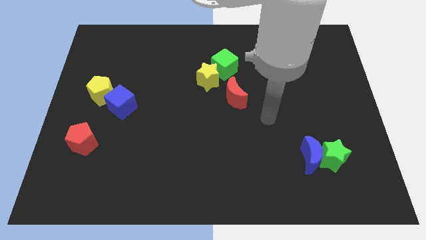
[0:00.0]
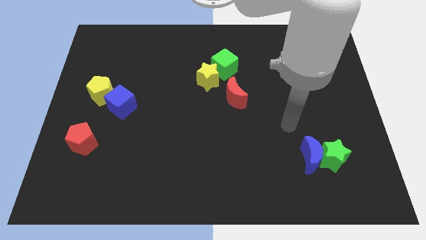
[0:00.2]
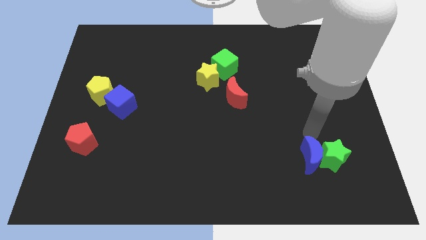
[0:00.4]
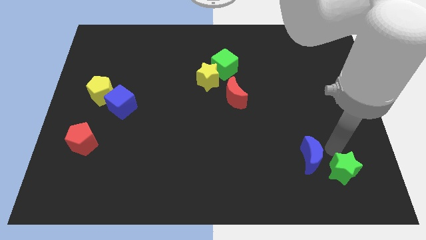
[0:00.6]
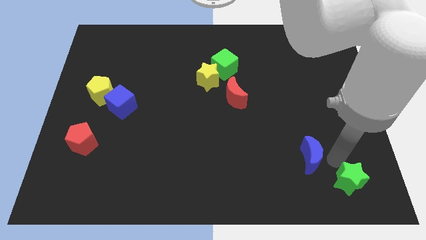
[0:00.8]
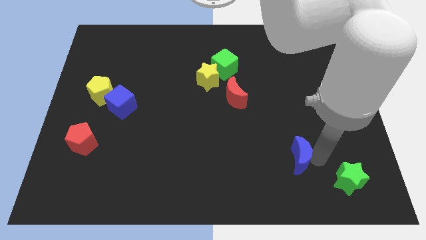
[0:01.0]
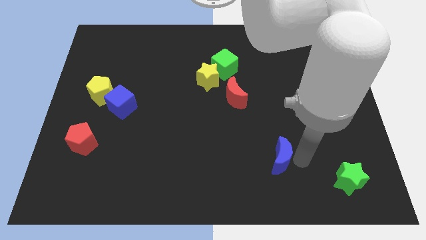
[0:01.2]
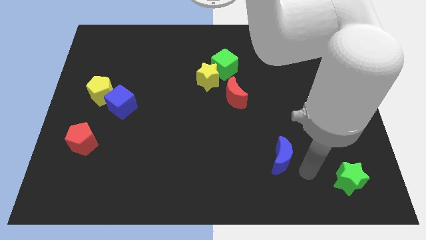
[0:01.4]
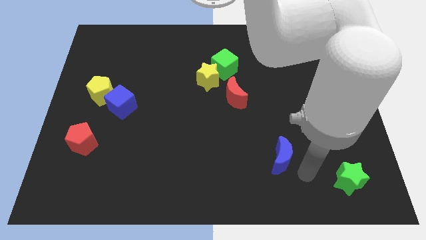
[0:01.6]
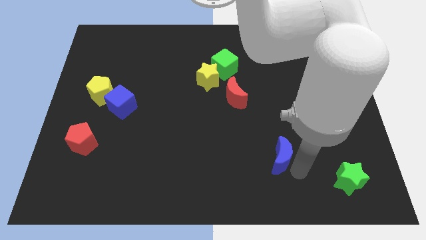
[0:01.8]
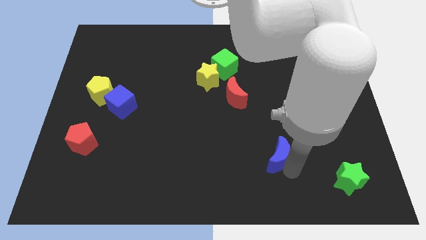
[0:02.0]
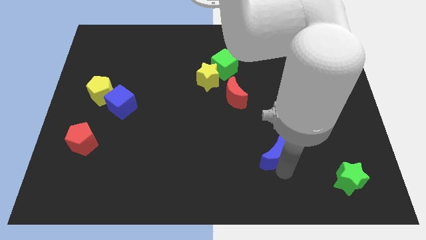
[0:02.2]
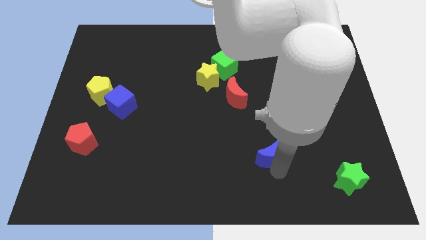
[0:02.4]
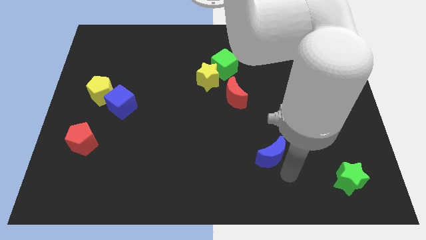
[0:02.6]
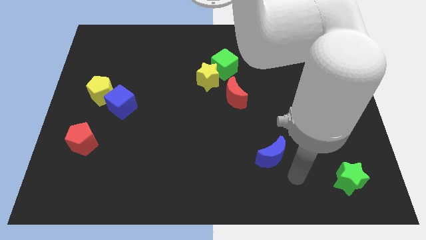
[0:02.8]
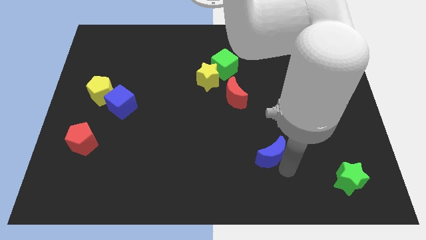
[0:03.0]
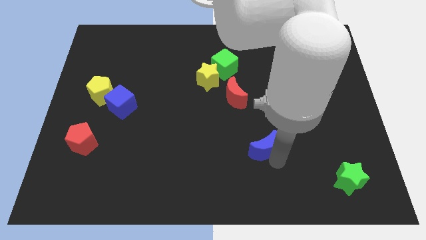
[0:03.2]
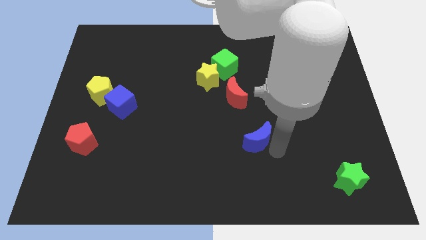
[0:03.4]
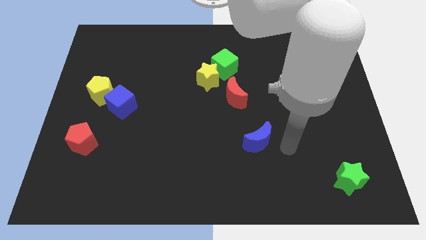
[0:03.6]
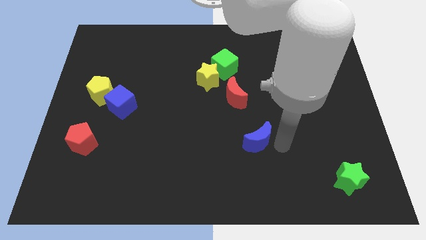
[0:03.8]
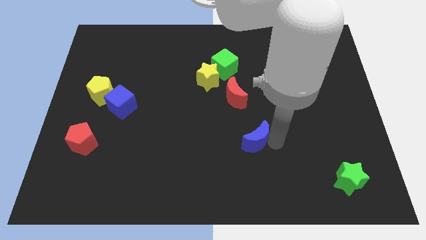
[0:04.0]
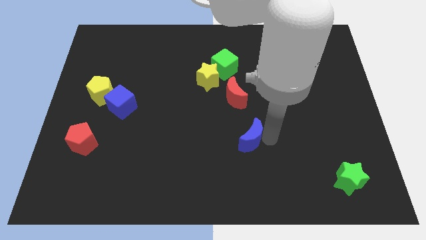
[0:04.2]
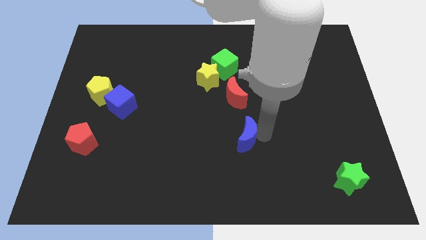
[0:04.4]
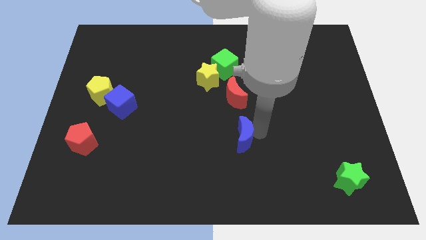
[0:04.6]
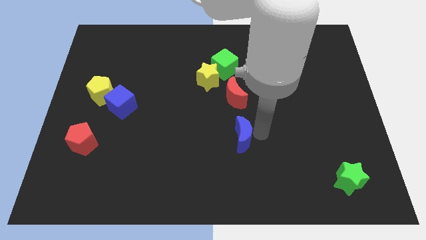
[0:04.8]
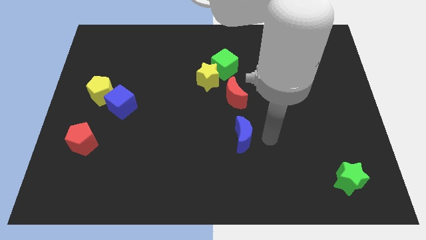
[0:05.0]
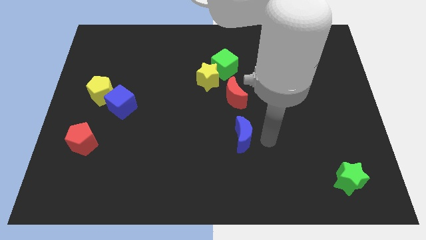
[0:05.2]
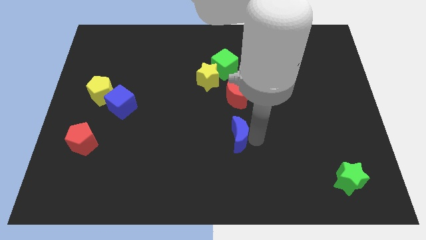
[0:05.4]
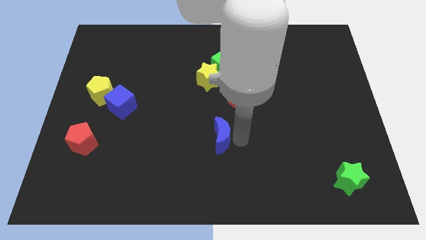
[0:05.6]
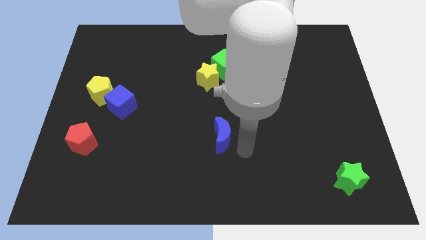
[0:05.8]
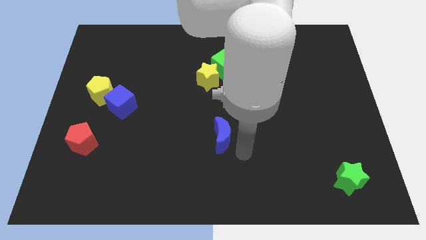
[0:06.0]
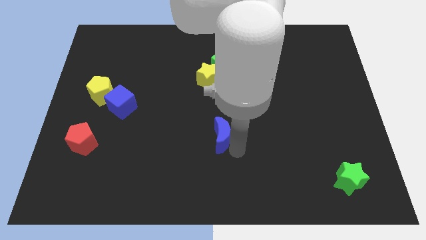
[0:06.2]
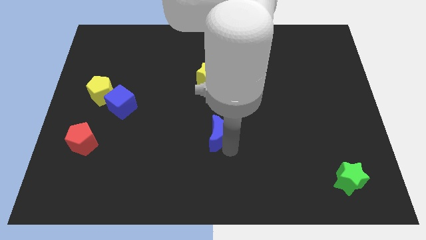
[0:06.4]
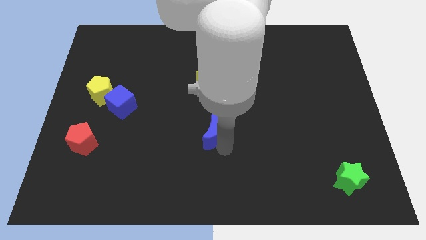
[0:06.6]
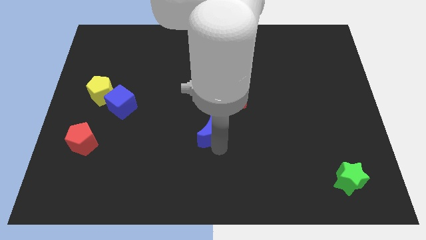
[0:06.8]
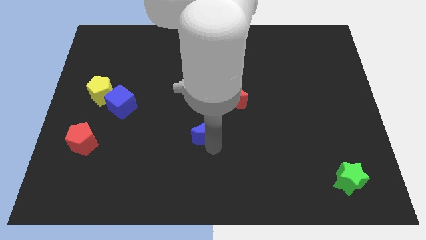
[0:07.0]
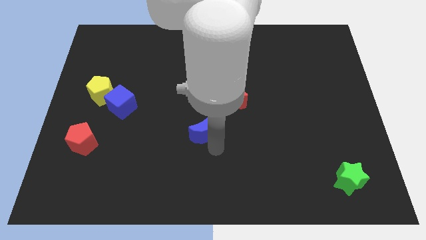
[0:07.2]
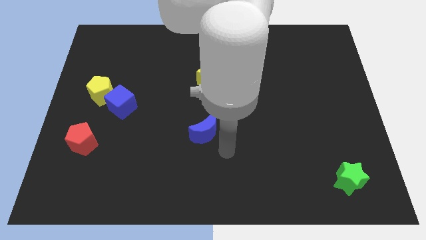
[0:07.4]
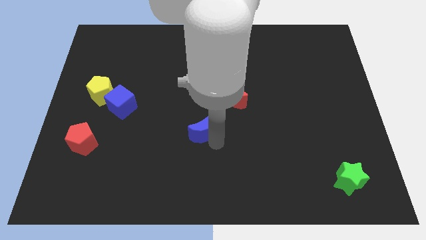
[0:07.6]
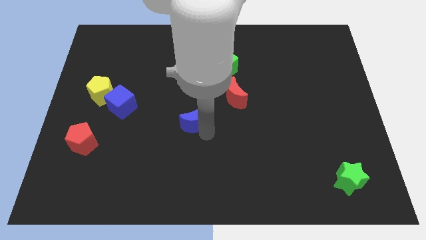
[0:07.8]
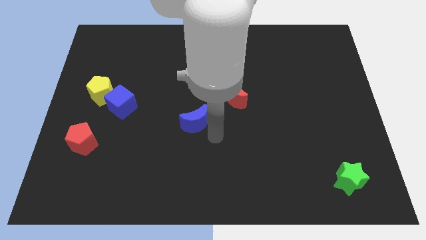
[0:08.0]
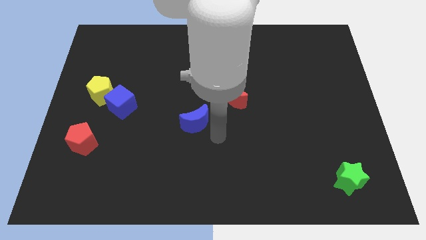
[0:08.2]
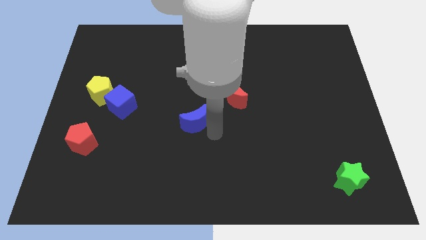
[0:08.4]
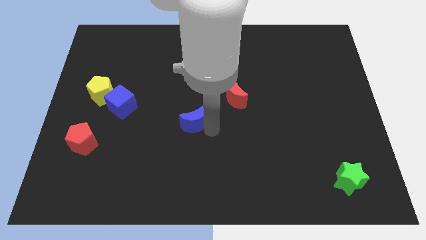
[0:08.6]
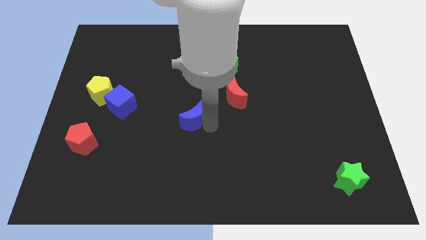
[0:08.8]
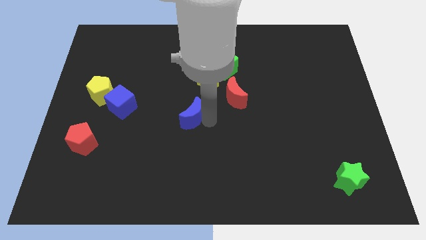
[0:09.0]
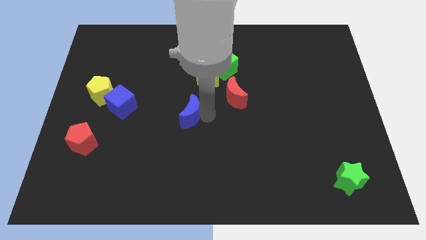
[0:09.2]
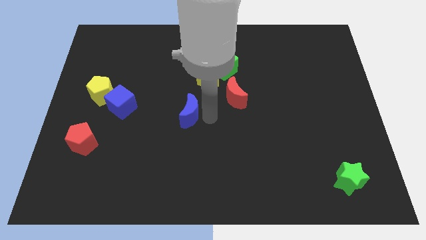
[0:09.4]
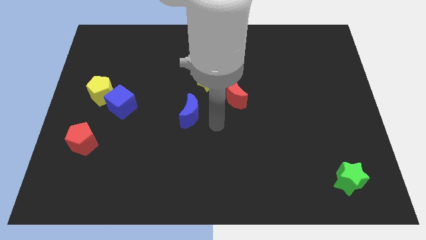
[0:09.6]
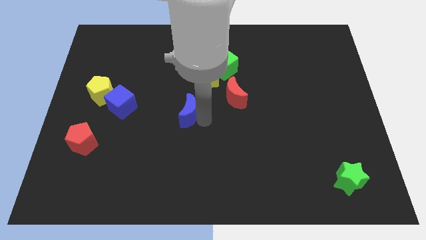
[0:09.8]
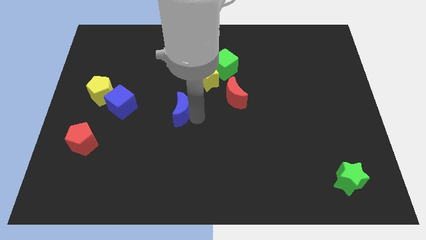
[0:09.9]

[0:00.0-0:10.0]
push the blue moon right of the blue cube

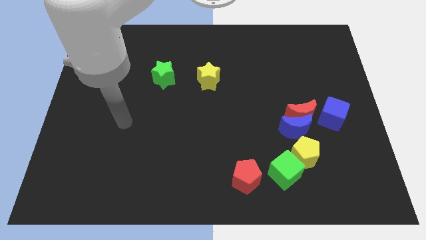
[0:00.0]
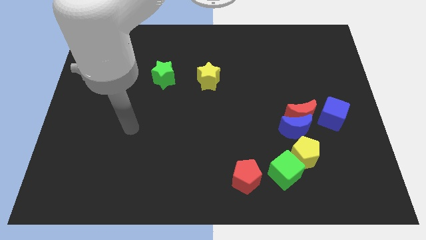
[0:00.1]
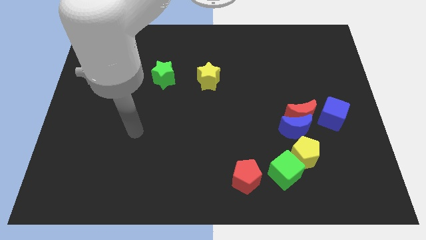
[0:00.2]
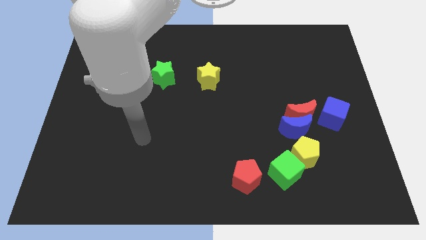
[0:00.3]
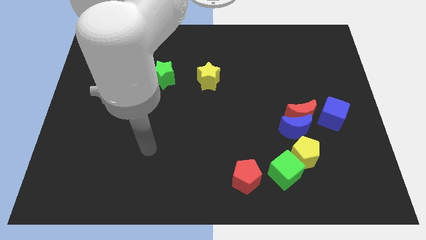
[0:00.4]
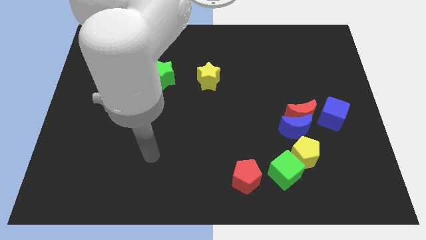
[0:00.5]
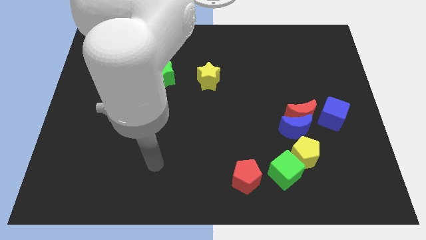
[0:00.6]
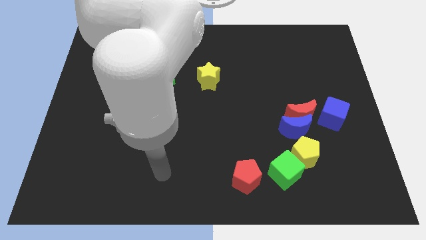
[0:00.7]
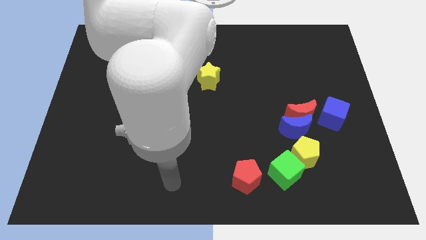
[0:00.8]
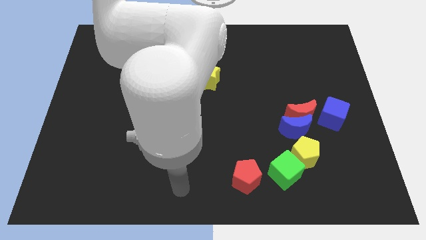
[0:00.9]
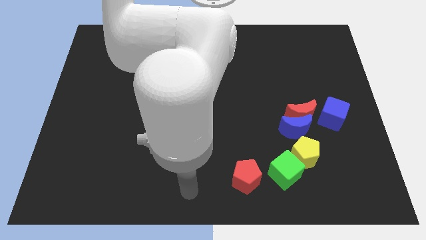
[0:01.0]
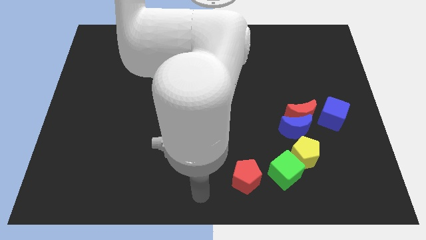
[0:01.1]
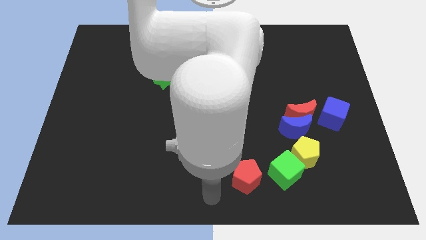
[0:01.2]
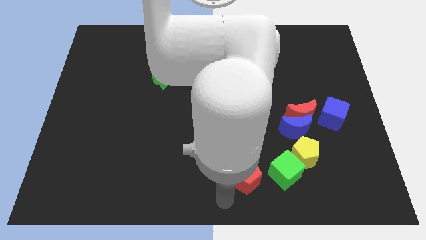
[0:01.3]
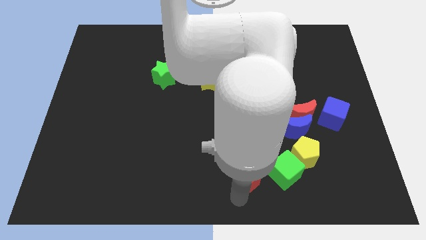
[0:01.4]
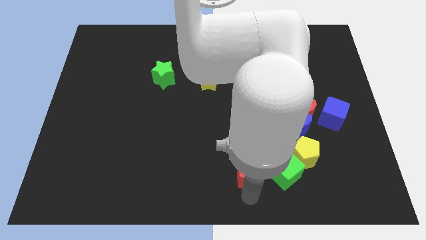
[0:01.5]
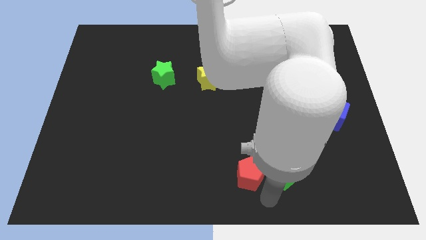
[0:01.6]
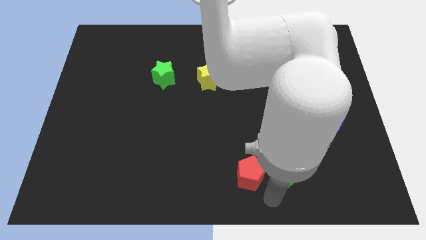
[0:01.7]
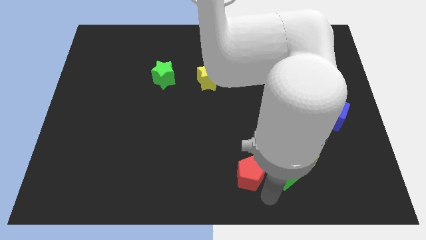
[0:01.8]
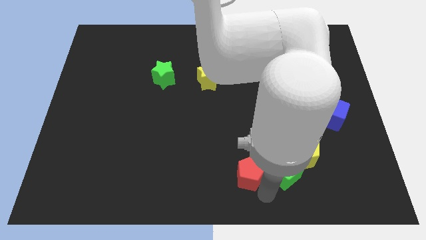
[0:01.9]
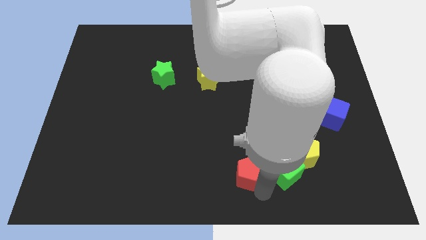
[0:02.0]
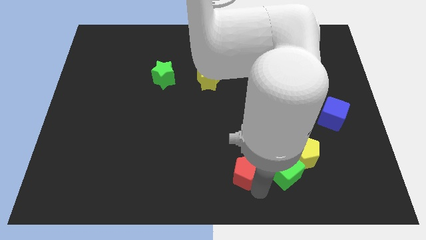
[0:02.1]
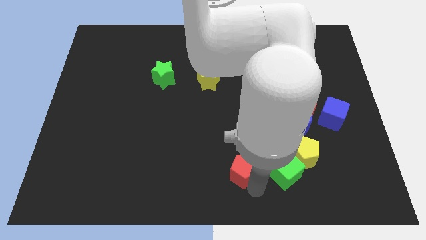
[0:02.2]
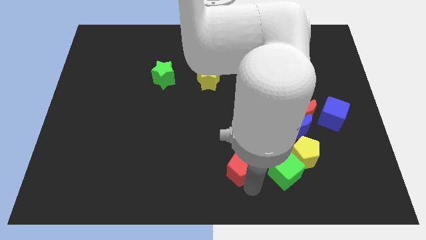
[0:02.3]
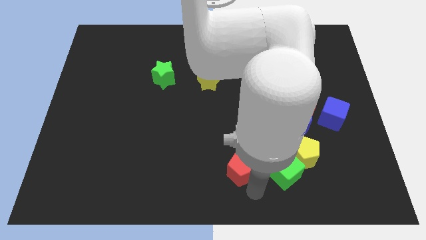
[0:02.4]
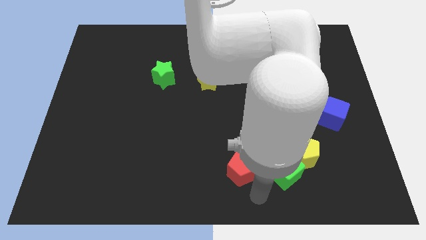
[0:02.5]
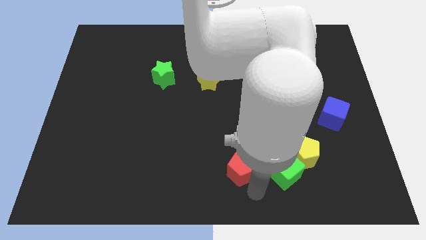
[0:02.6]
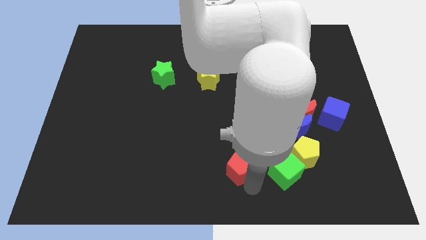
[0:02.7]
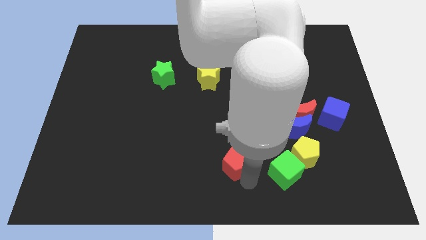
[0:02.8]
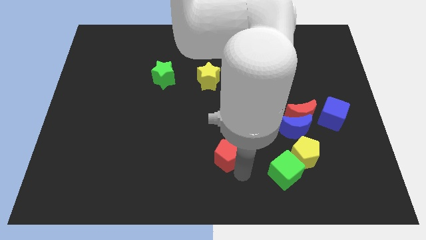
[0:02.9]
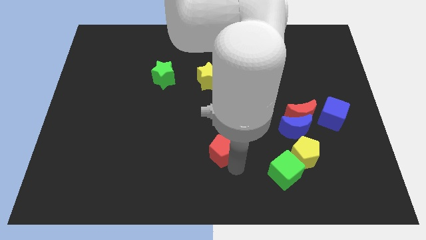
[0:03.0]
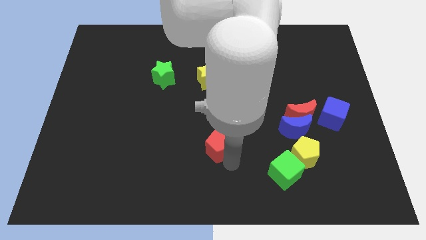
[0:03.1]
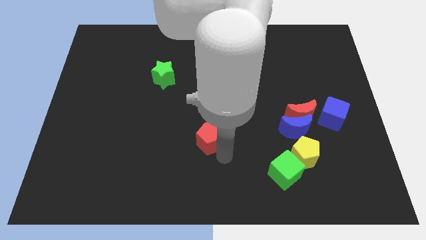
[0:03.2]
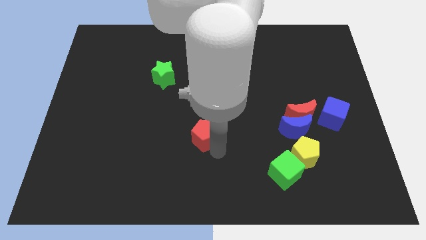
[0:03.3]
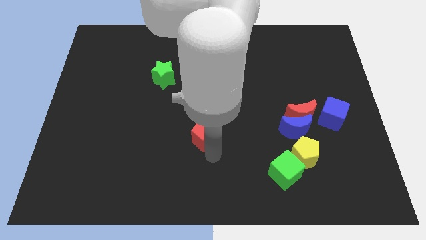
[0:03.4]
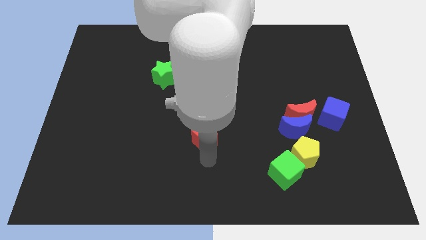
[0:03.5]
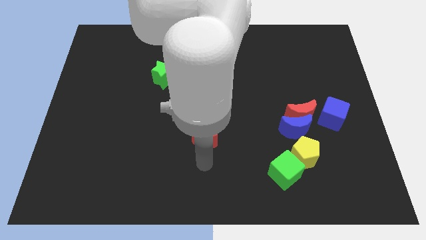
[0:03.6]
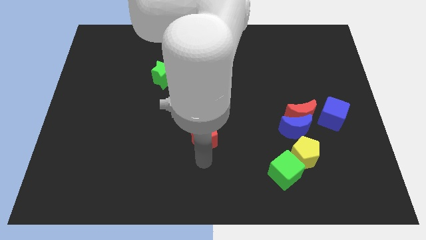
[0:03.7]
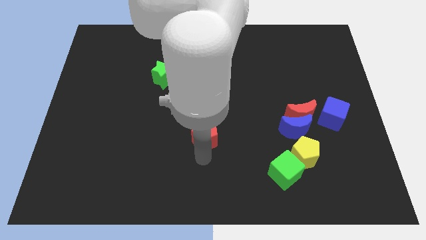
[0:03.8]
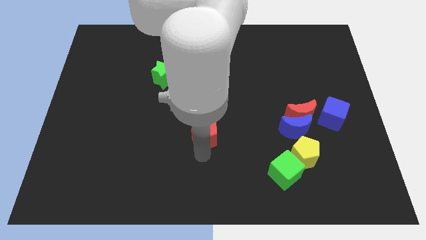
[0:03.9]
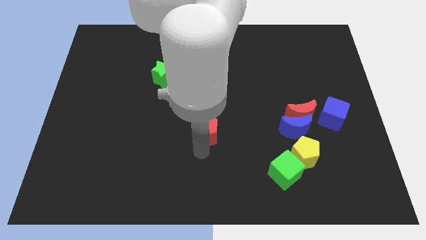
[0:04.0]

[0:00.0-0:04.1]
move the red pentagon to the bottom of the yellow star
